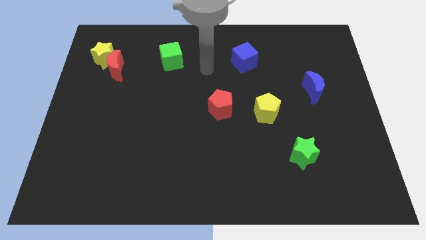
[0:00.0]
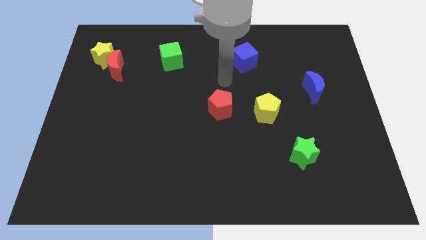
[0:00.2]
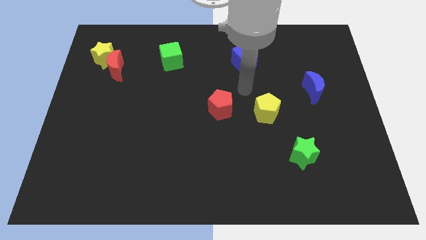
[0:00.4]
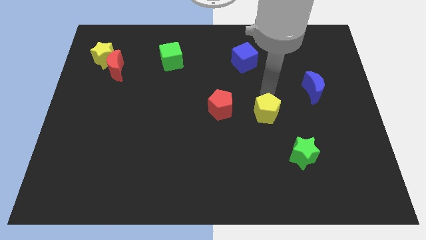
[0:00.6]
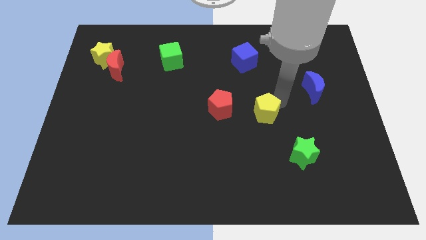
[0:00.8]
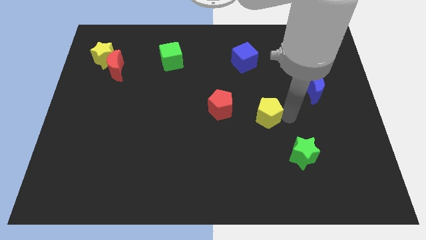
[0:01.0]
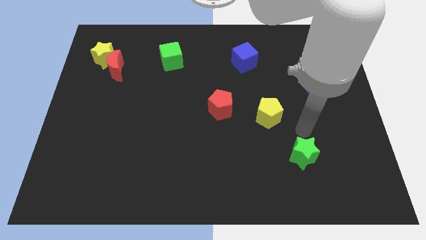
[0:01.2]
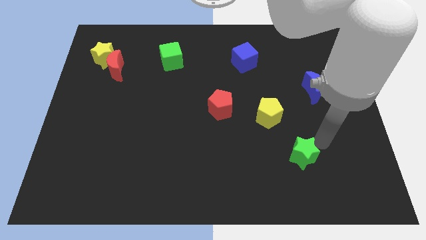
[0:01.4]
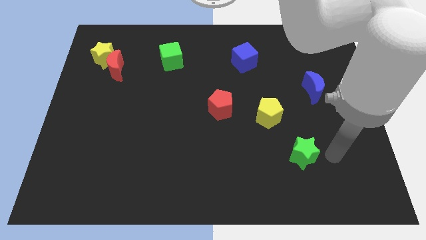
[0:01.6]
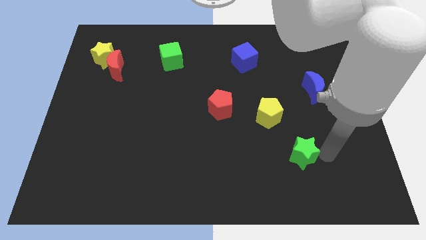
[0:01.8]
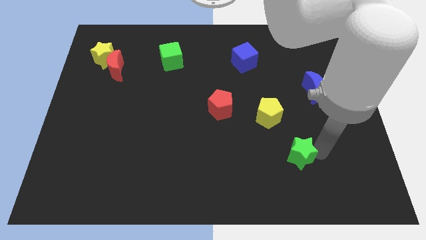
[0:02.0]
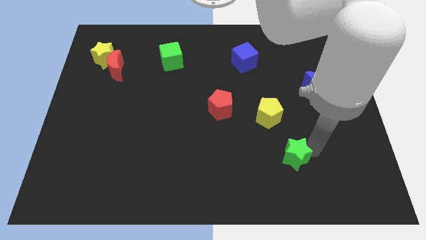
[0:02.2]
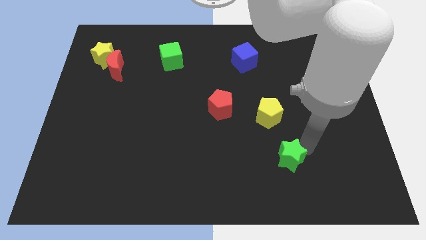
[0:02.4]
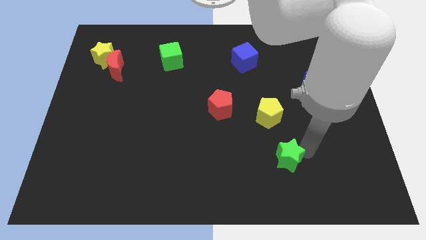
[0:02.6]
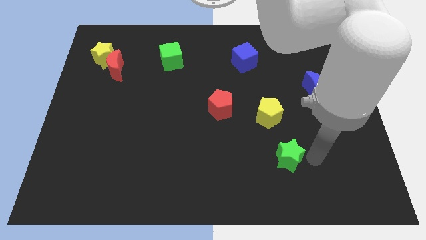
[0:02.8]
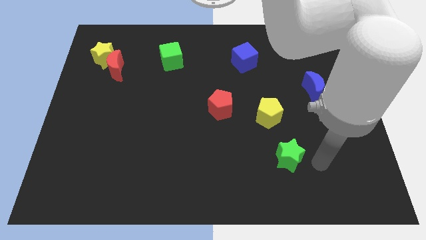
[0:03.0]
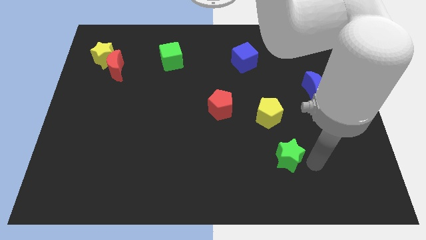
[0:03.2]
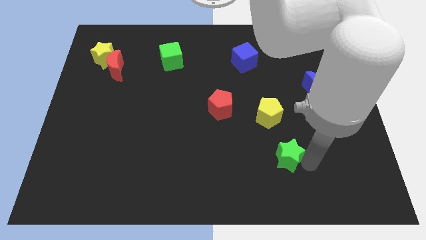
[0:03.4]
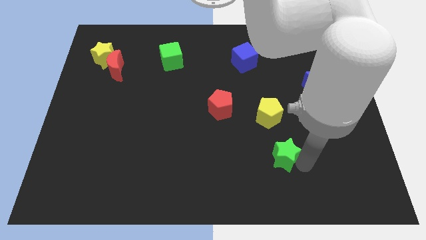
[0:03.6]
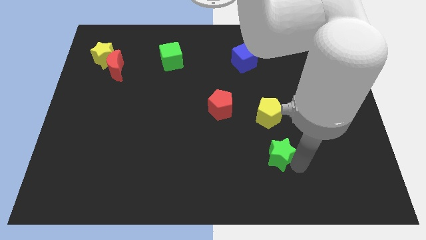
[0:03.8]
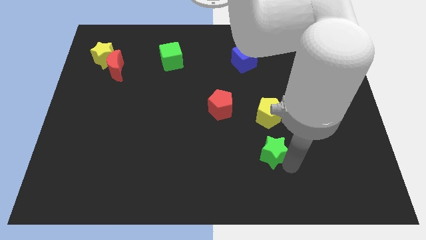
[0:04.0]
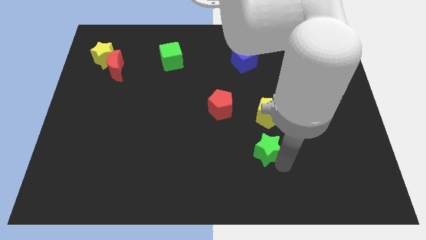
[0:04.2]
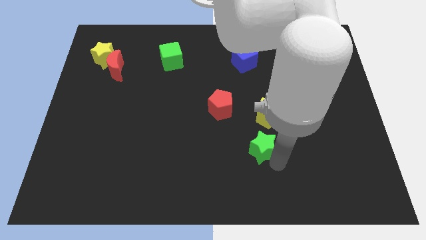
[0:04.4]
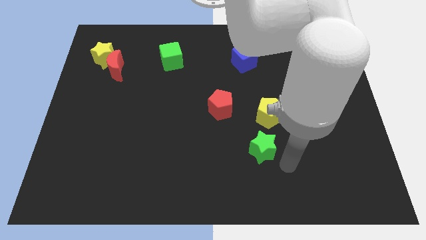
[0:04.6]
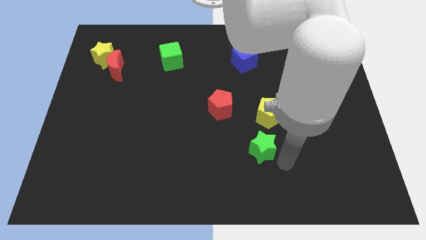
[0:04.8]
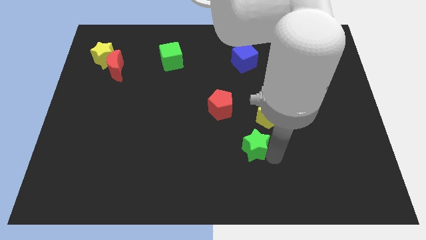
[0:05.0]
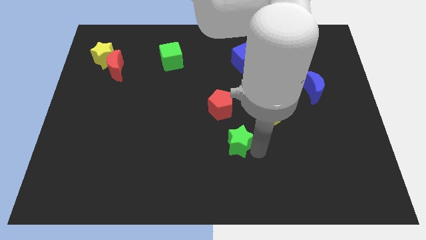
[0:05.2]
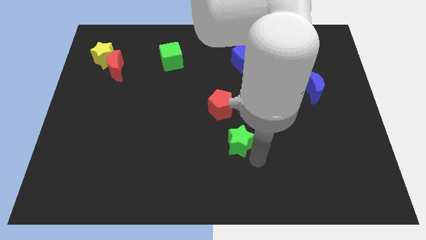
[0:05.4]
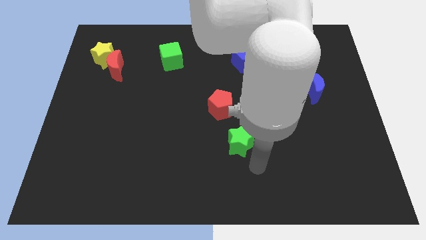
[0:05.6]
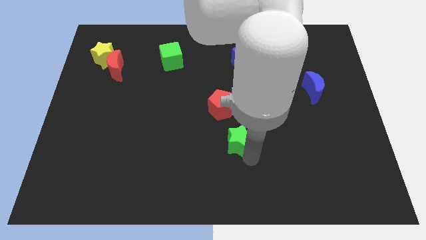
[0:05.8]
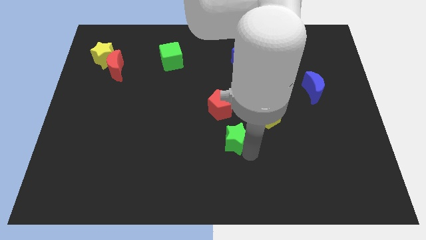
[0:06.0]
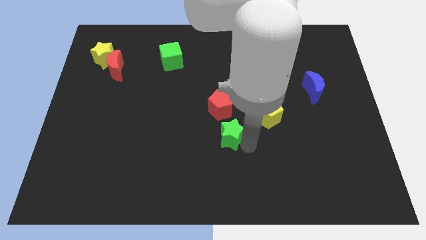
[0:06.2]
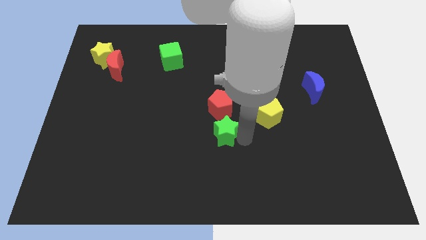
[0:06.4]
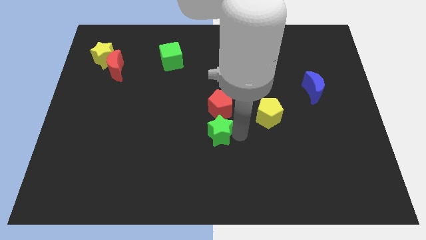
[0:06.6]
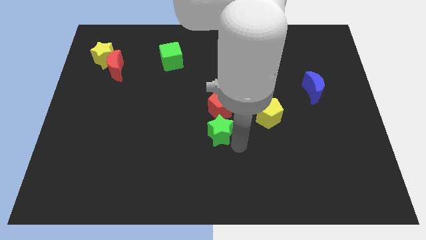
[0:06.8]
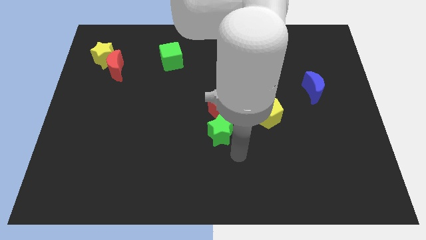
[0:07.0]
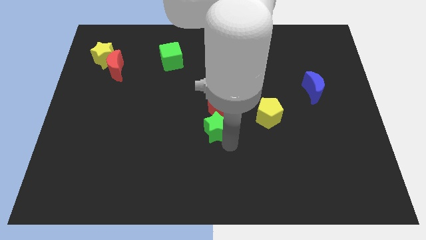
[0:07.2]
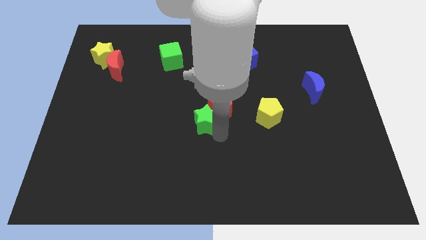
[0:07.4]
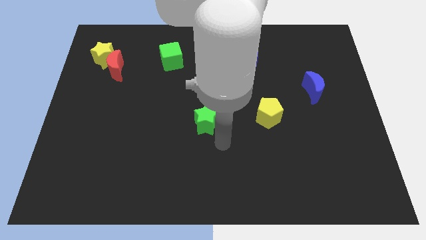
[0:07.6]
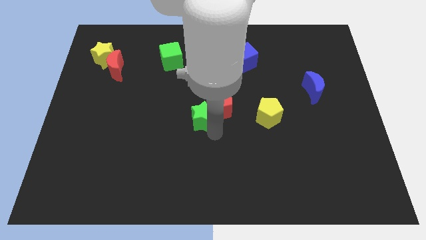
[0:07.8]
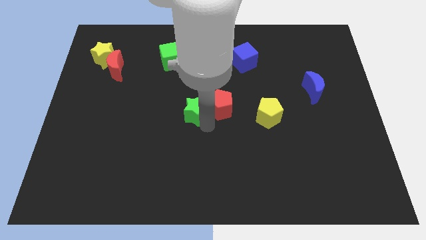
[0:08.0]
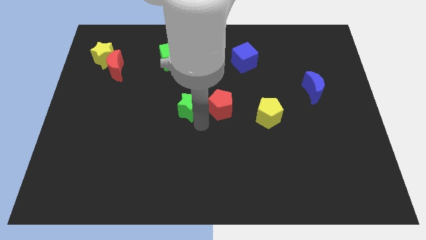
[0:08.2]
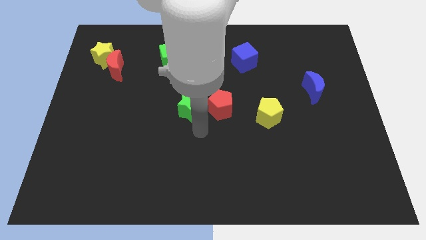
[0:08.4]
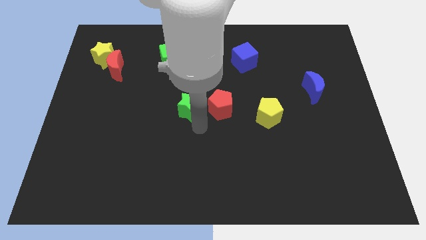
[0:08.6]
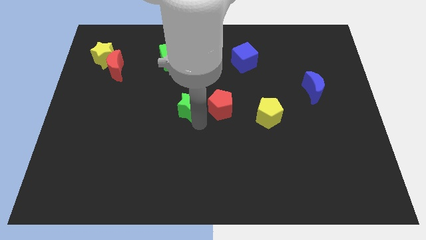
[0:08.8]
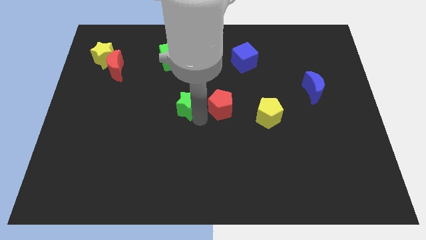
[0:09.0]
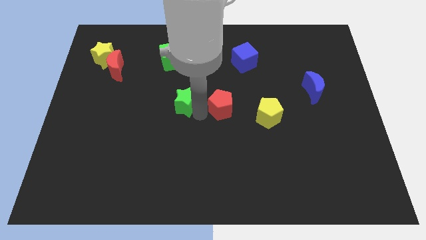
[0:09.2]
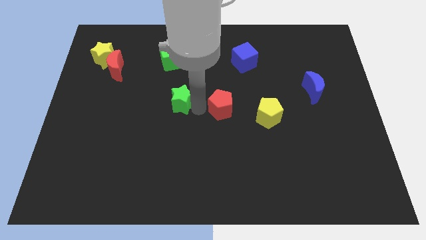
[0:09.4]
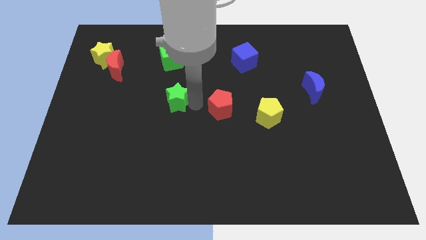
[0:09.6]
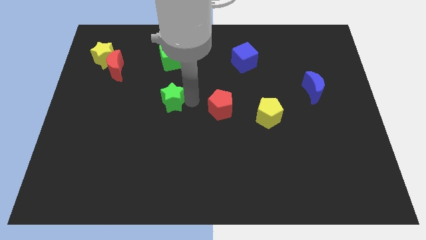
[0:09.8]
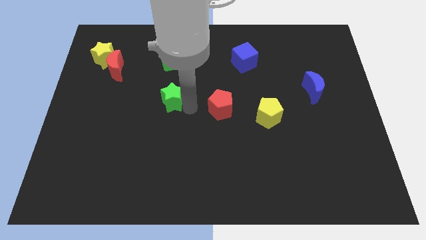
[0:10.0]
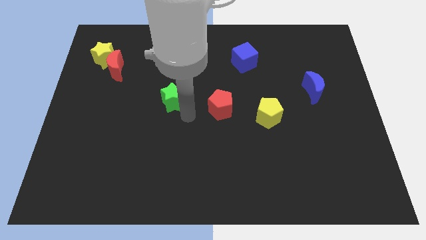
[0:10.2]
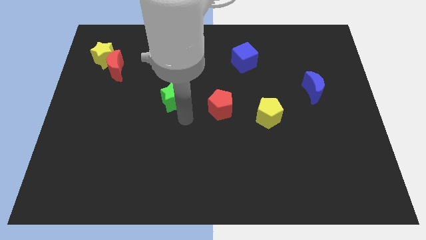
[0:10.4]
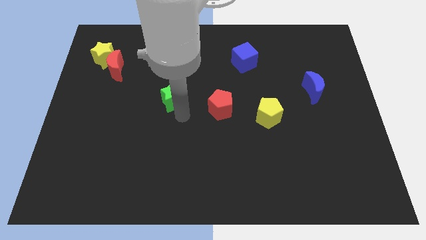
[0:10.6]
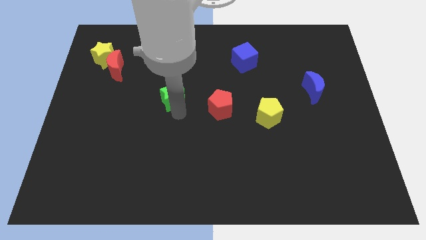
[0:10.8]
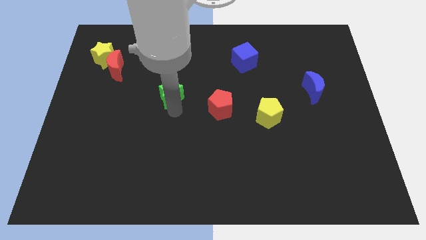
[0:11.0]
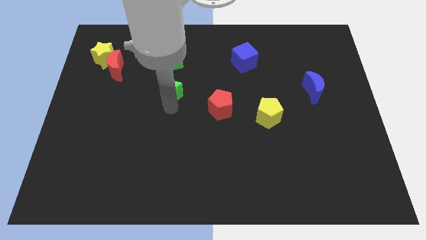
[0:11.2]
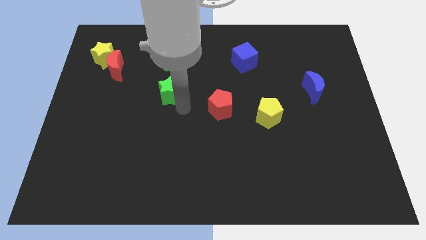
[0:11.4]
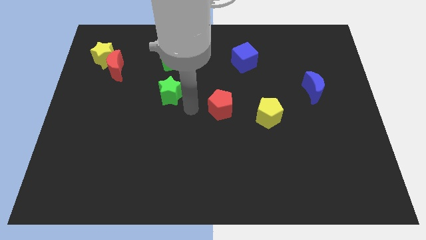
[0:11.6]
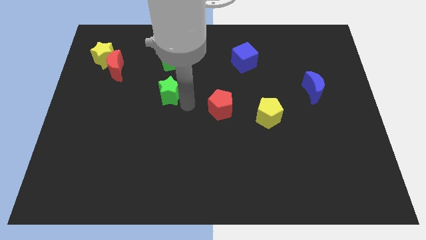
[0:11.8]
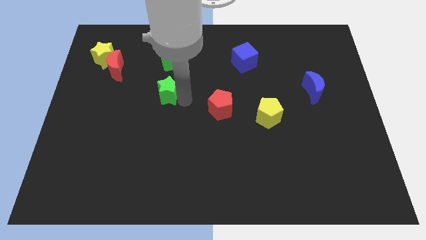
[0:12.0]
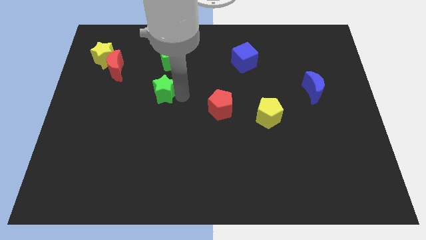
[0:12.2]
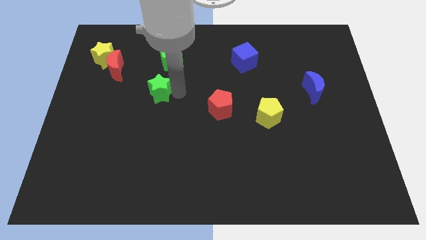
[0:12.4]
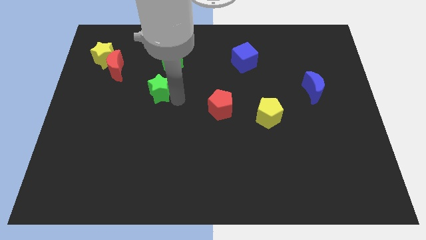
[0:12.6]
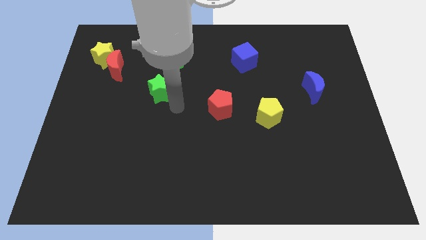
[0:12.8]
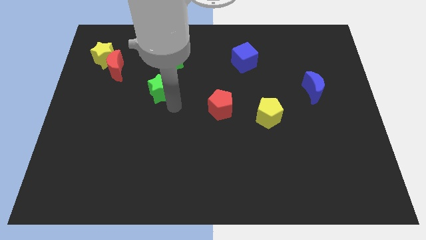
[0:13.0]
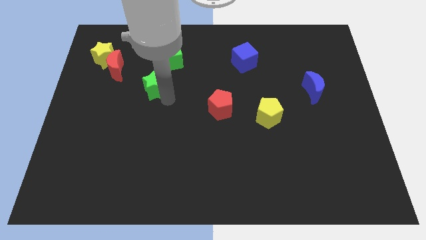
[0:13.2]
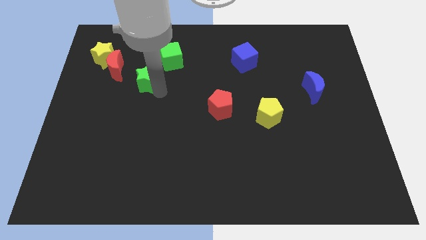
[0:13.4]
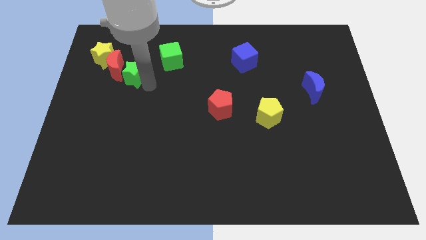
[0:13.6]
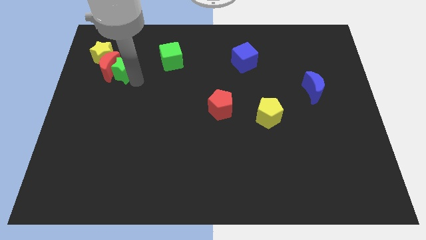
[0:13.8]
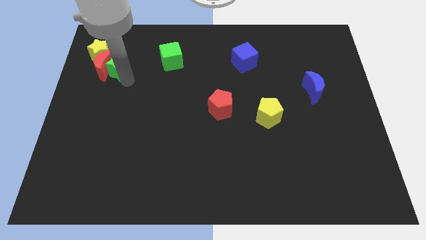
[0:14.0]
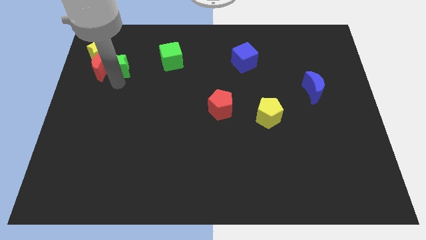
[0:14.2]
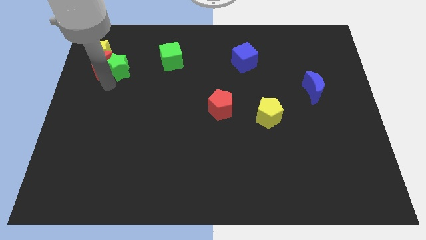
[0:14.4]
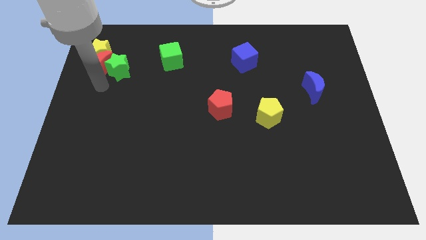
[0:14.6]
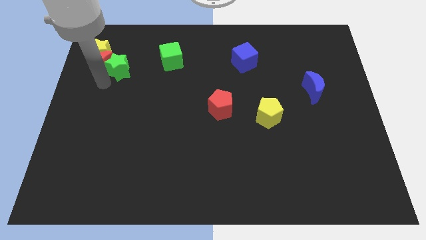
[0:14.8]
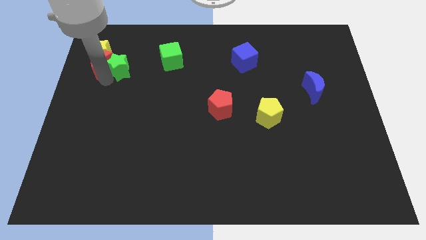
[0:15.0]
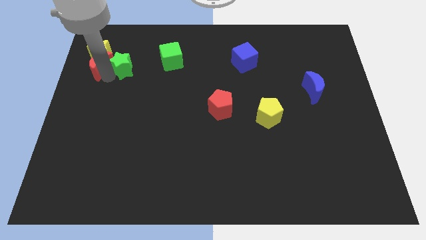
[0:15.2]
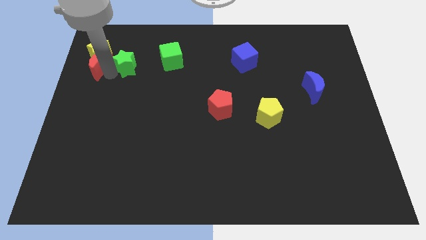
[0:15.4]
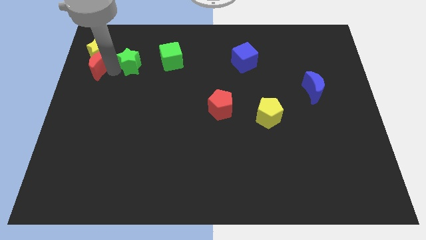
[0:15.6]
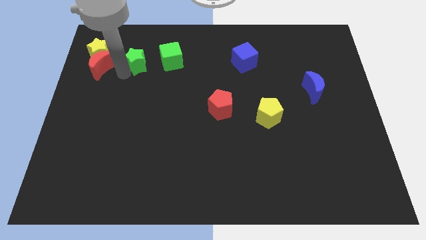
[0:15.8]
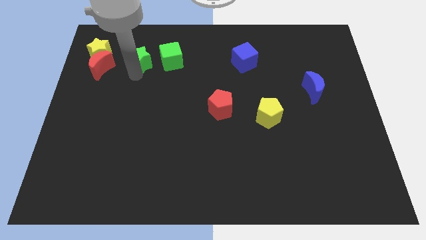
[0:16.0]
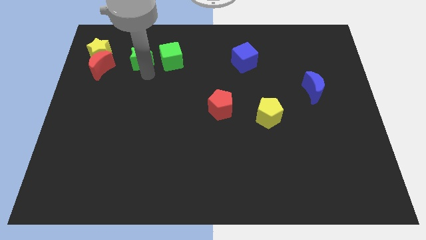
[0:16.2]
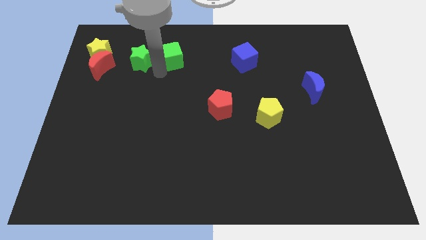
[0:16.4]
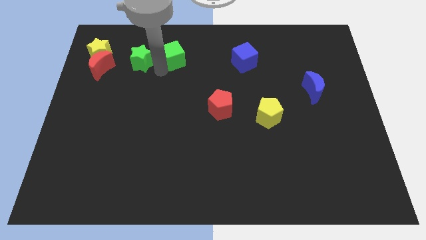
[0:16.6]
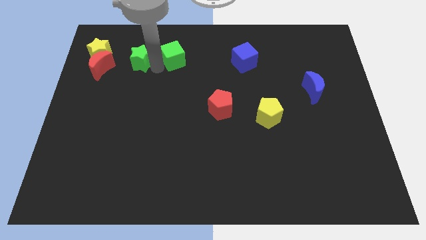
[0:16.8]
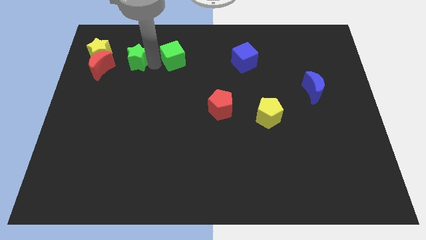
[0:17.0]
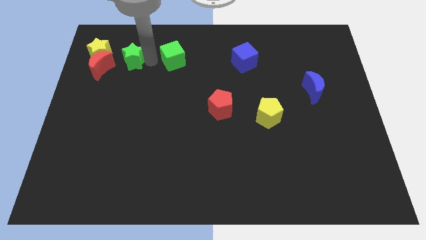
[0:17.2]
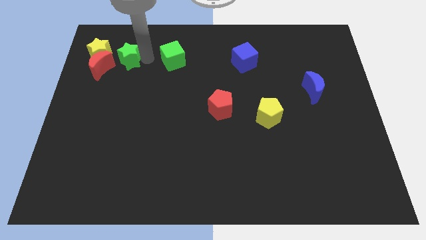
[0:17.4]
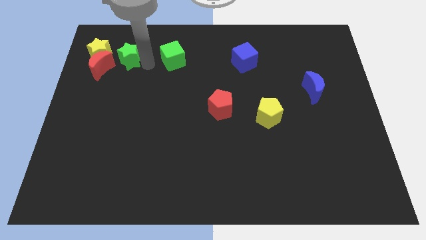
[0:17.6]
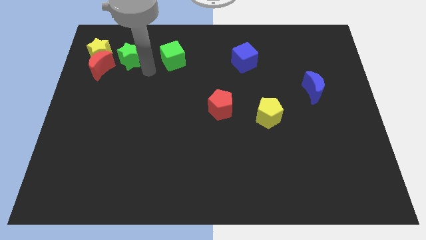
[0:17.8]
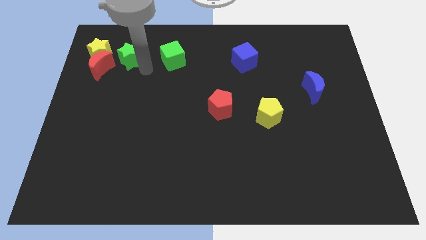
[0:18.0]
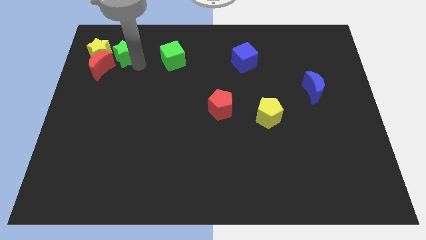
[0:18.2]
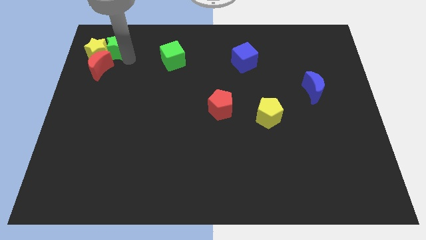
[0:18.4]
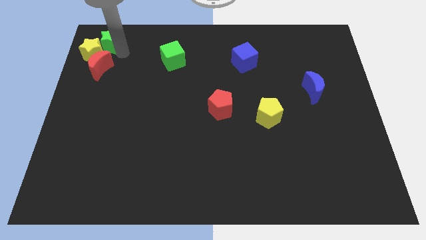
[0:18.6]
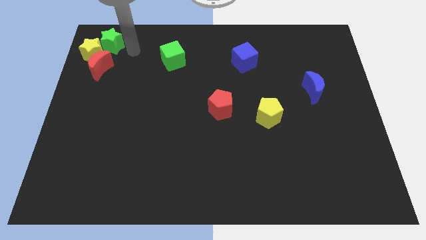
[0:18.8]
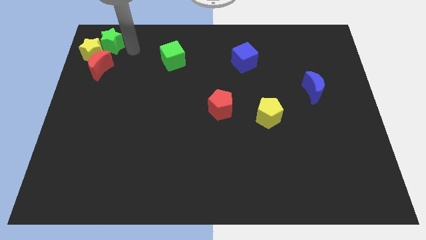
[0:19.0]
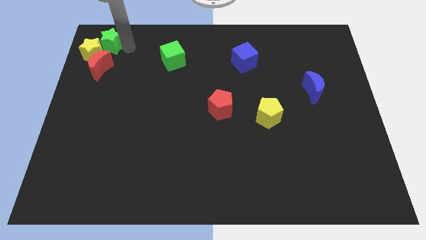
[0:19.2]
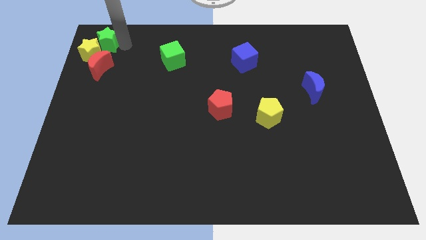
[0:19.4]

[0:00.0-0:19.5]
move the green star to the upper left corner
